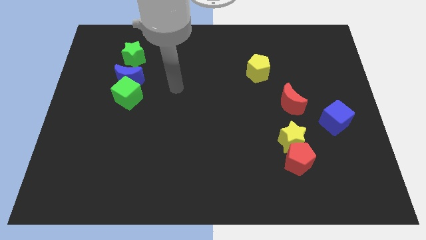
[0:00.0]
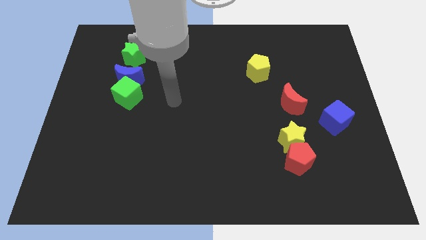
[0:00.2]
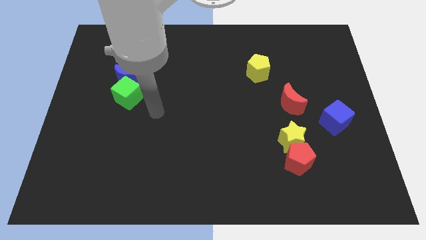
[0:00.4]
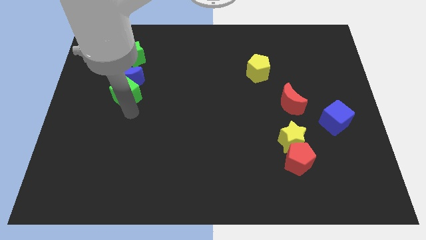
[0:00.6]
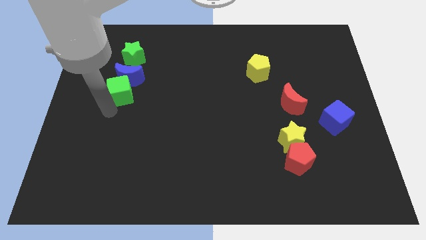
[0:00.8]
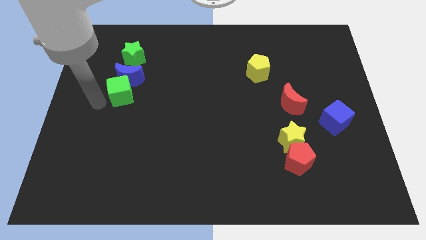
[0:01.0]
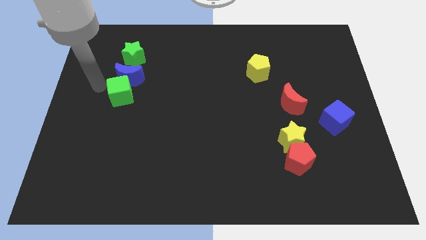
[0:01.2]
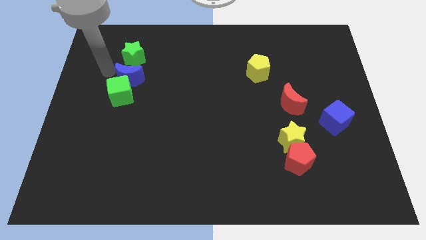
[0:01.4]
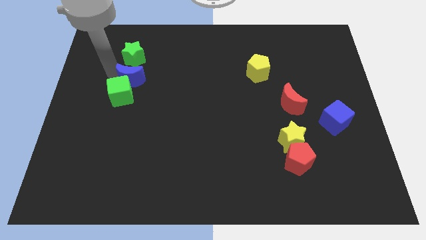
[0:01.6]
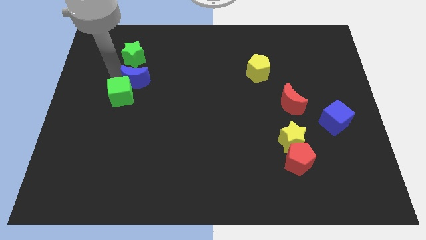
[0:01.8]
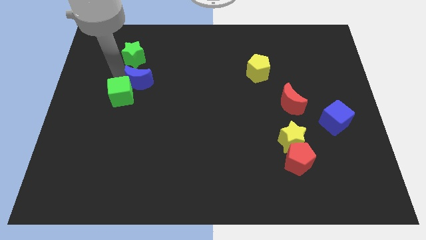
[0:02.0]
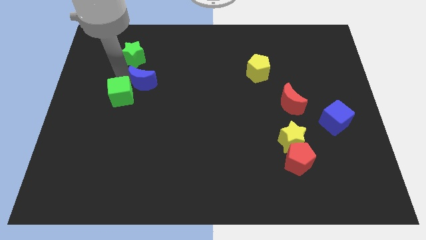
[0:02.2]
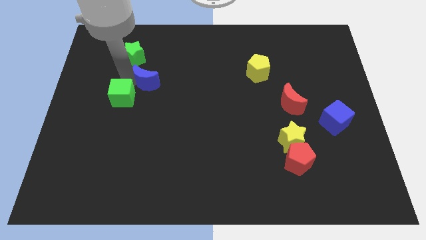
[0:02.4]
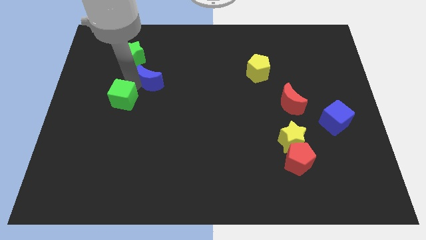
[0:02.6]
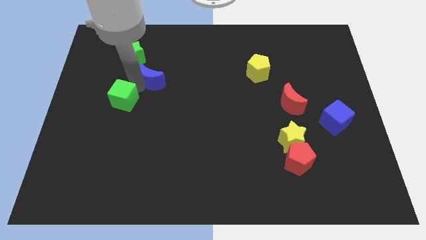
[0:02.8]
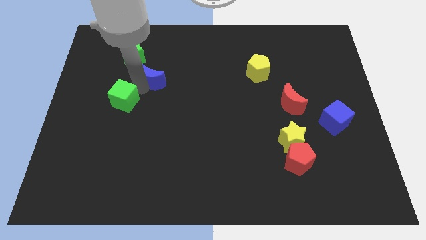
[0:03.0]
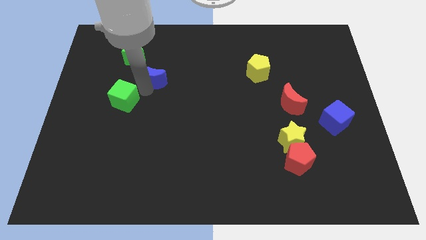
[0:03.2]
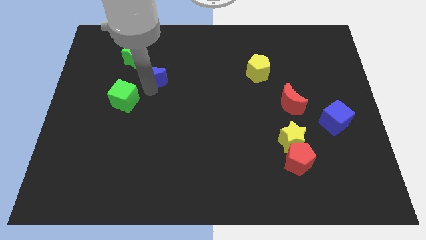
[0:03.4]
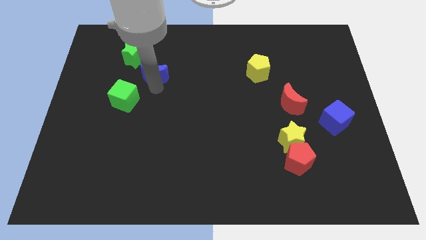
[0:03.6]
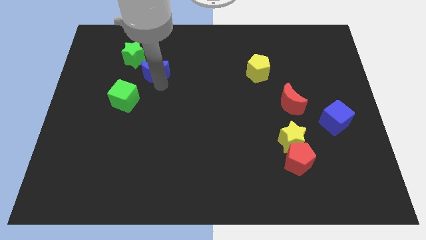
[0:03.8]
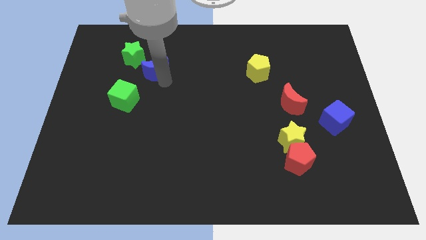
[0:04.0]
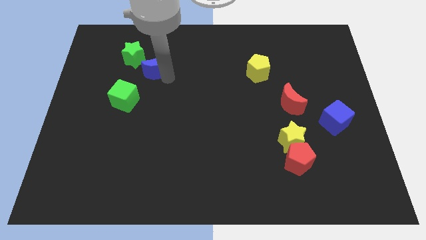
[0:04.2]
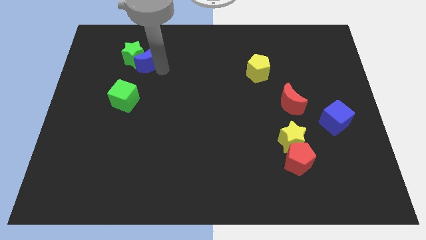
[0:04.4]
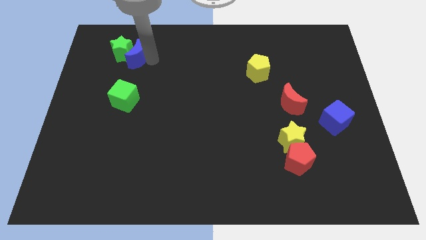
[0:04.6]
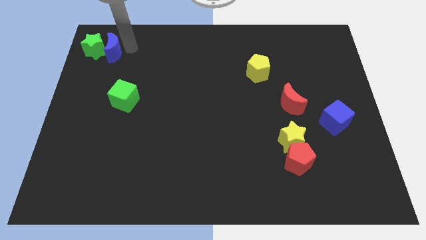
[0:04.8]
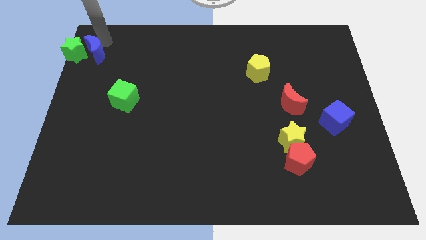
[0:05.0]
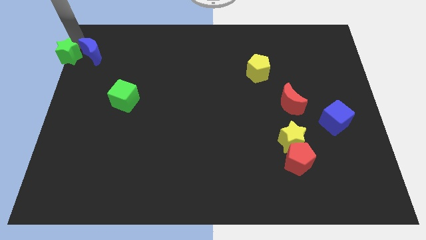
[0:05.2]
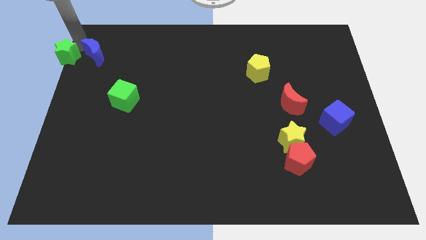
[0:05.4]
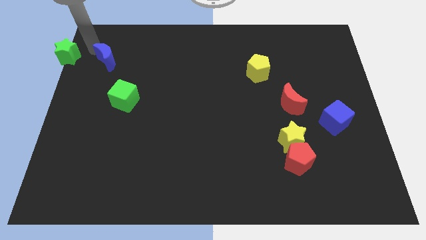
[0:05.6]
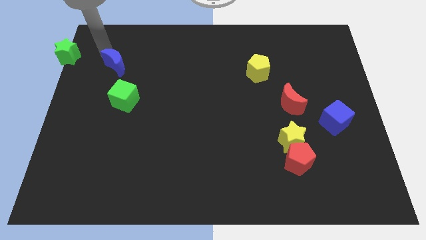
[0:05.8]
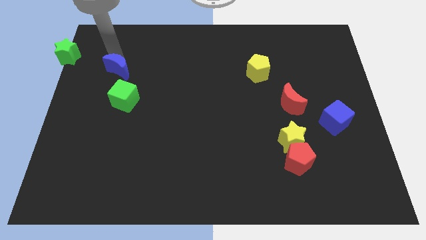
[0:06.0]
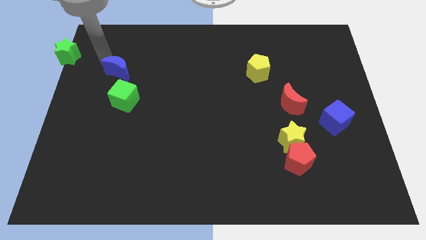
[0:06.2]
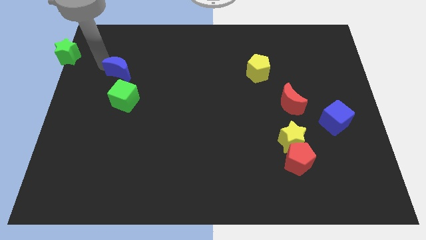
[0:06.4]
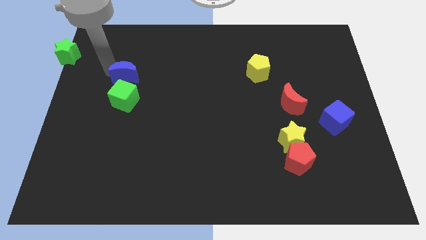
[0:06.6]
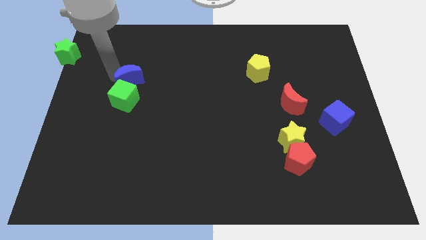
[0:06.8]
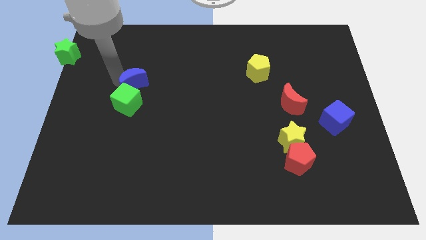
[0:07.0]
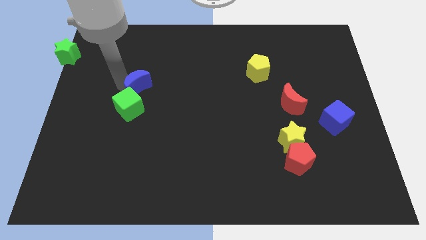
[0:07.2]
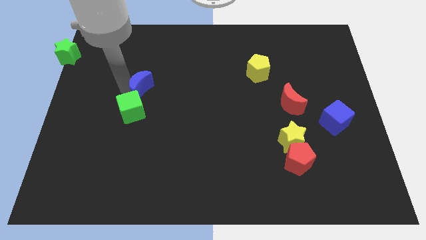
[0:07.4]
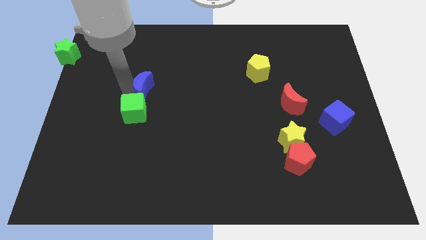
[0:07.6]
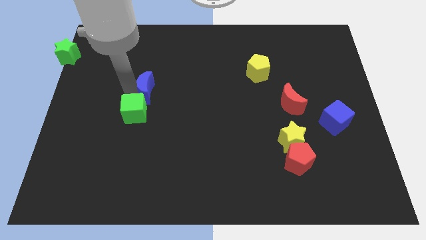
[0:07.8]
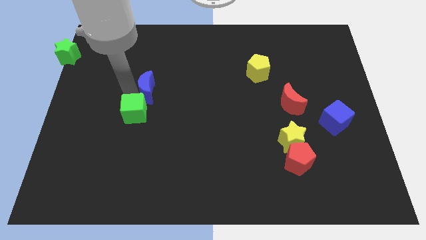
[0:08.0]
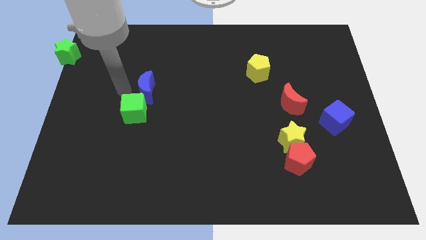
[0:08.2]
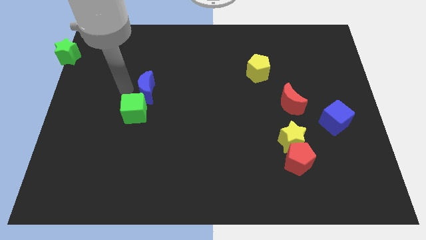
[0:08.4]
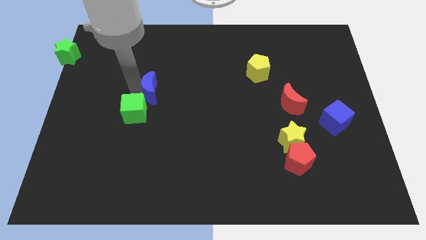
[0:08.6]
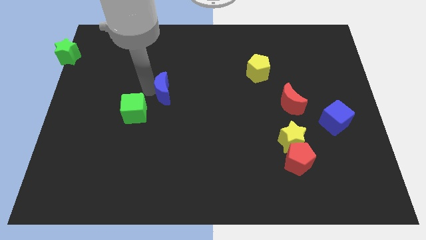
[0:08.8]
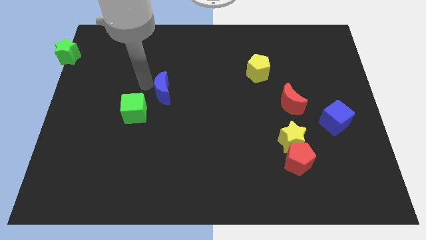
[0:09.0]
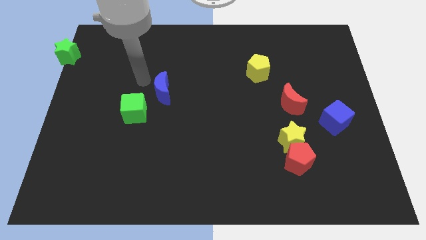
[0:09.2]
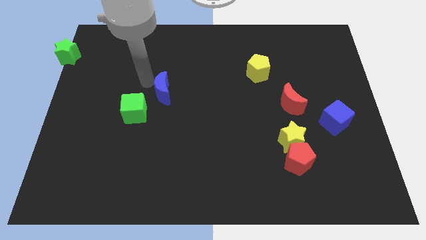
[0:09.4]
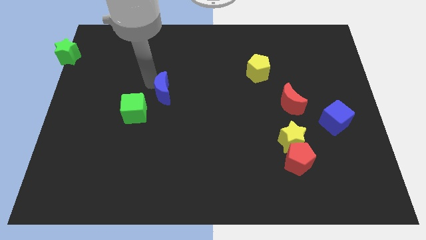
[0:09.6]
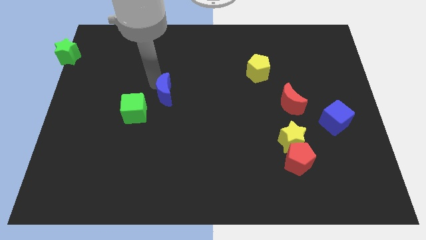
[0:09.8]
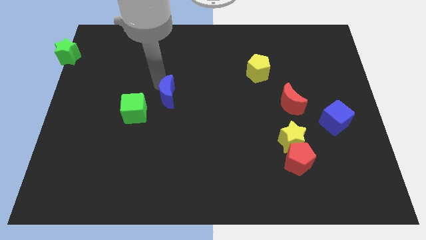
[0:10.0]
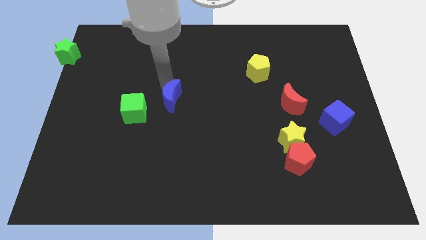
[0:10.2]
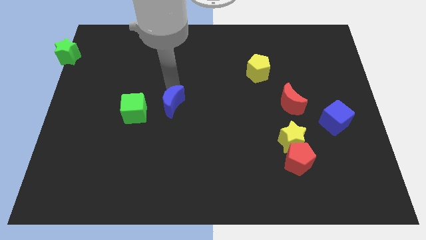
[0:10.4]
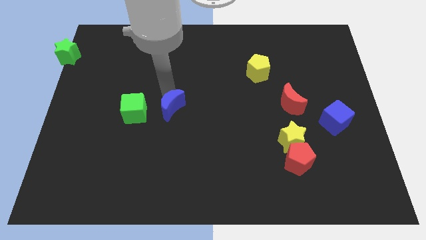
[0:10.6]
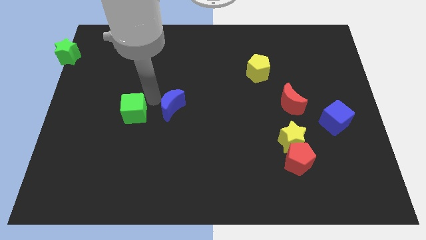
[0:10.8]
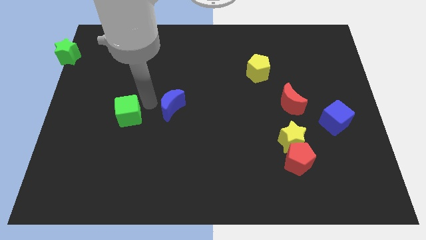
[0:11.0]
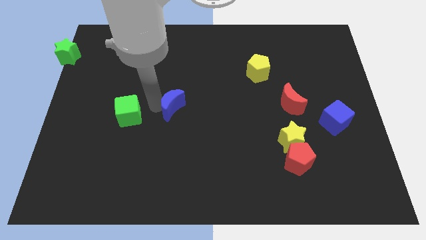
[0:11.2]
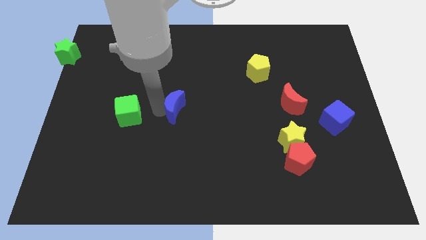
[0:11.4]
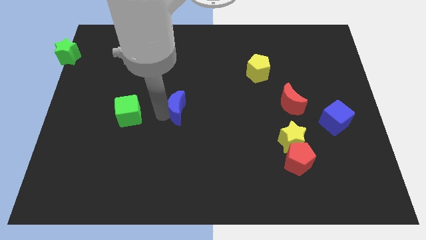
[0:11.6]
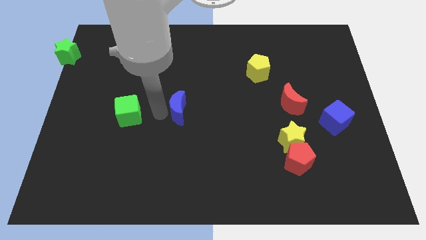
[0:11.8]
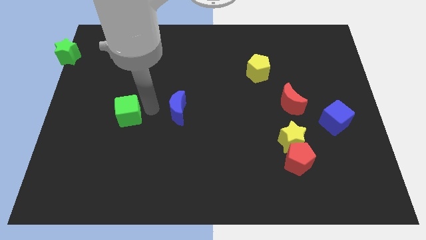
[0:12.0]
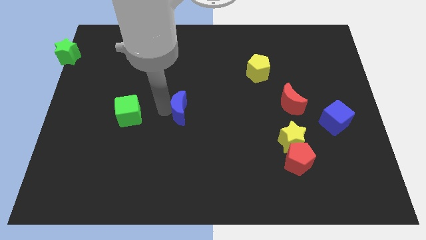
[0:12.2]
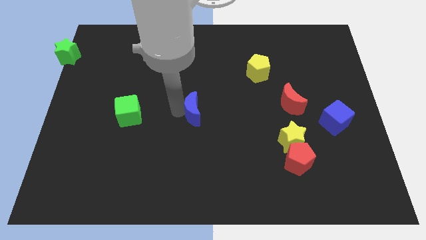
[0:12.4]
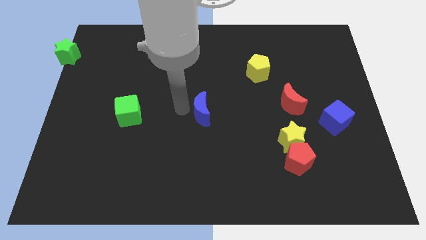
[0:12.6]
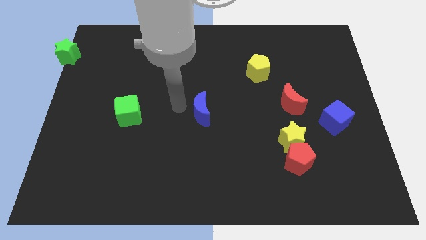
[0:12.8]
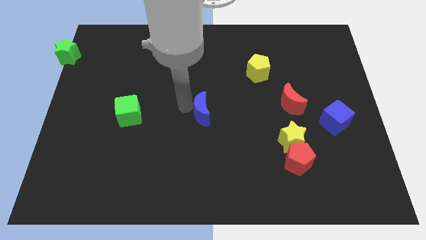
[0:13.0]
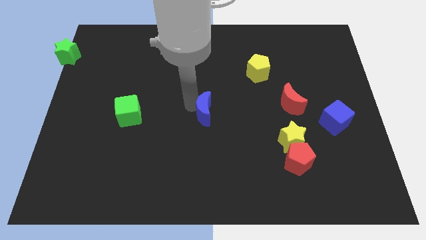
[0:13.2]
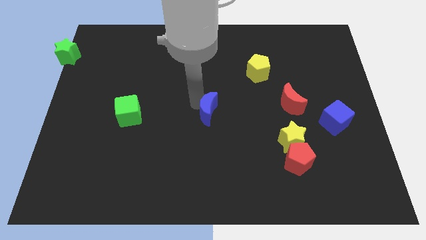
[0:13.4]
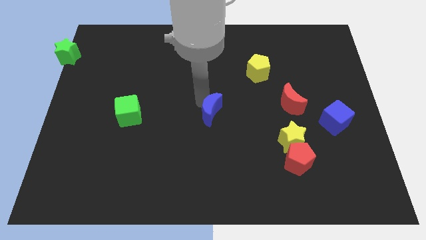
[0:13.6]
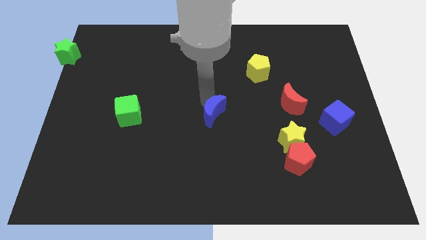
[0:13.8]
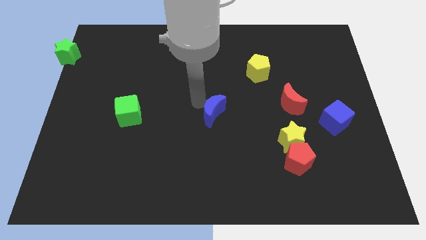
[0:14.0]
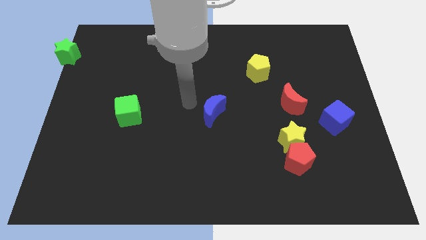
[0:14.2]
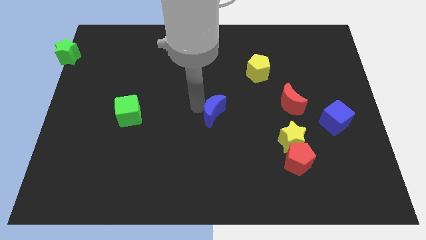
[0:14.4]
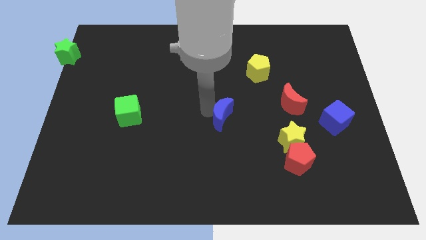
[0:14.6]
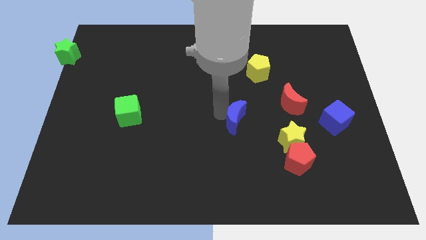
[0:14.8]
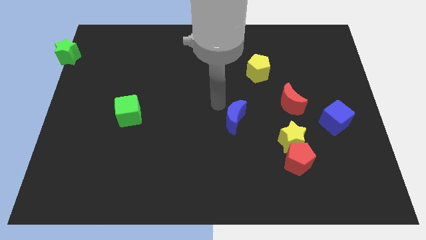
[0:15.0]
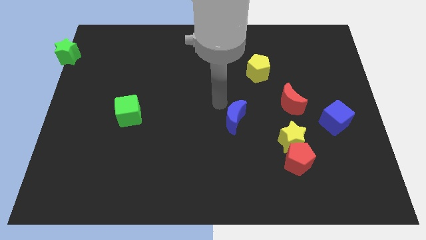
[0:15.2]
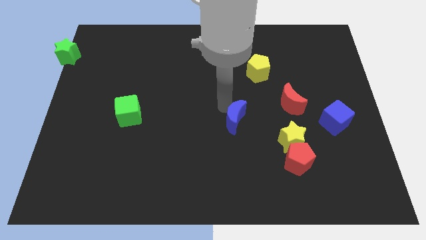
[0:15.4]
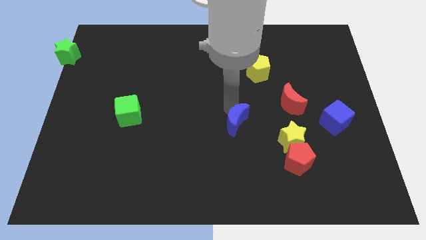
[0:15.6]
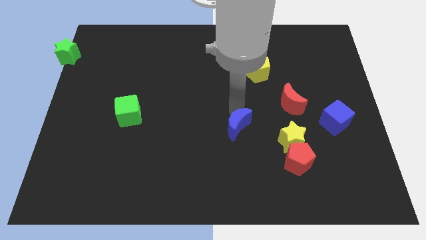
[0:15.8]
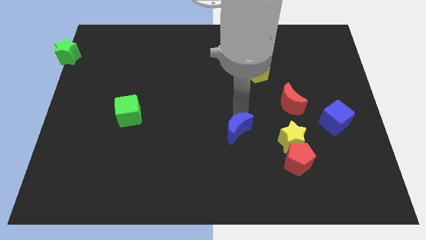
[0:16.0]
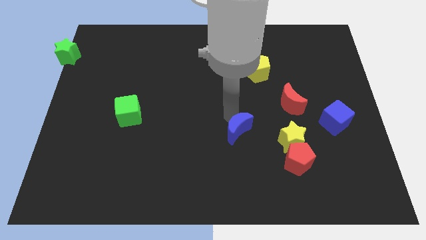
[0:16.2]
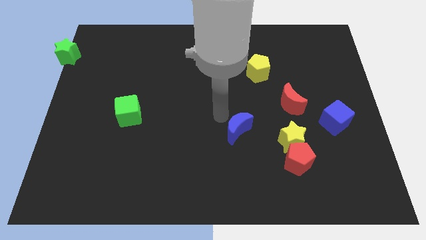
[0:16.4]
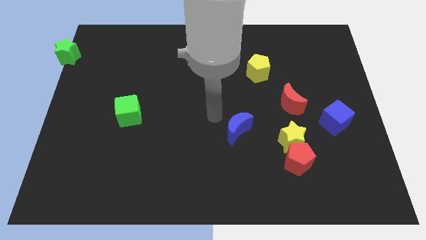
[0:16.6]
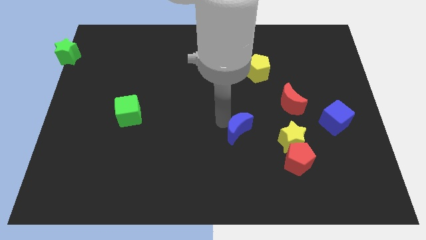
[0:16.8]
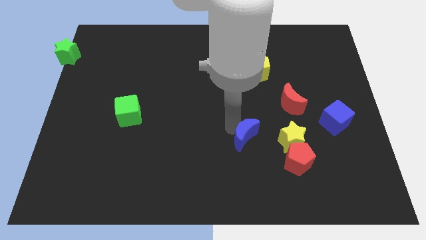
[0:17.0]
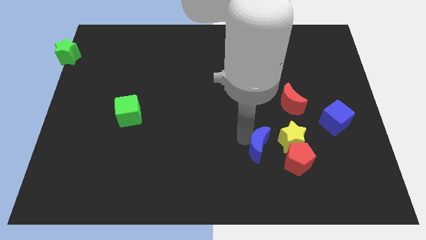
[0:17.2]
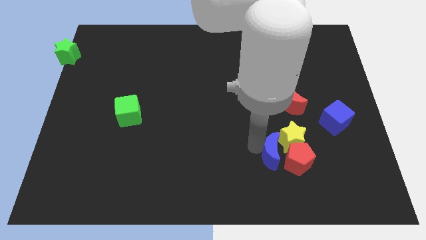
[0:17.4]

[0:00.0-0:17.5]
slide the blue moon close to the red pentagon
